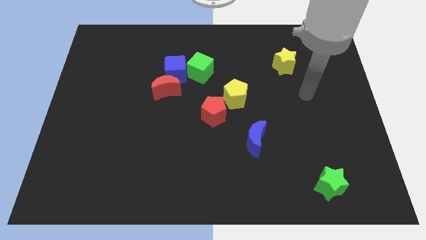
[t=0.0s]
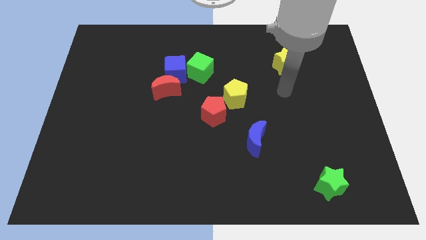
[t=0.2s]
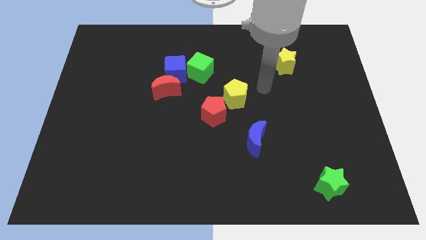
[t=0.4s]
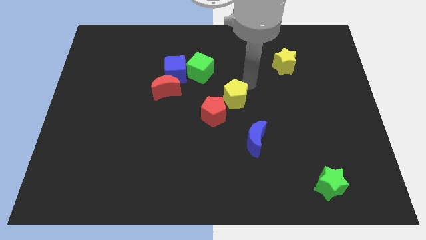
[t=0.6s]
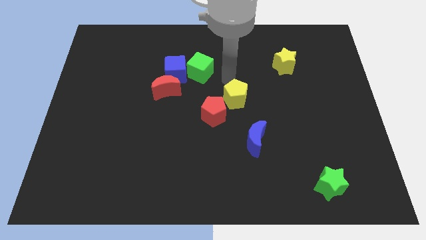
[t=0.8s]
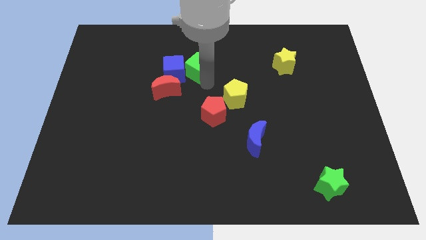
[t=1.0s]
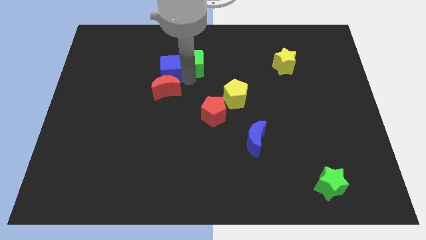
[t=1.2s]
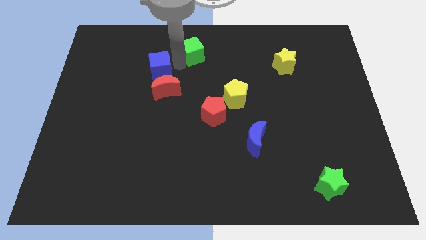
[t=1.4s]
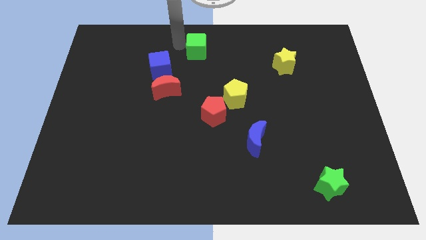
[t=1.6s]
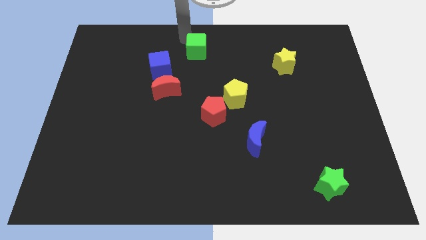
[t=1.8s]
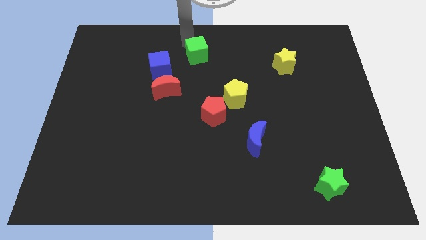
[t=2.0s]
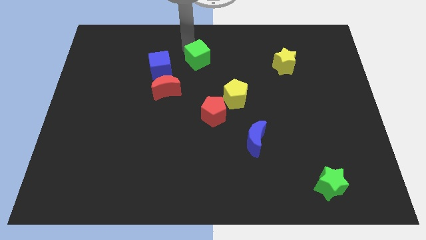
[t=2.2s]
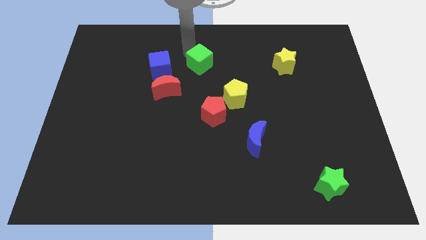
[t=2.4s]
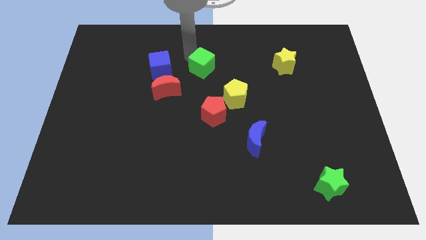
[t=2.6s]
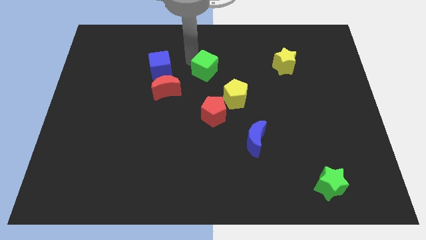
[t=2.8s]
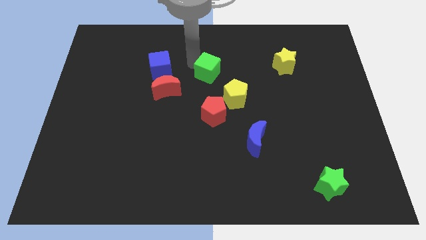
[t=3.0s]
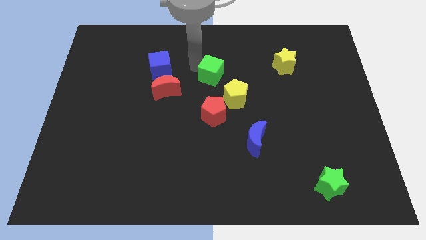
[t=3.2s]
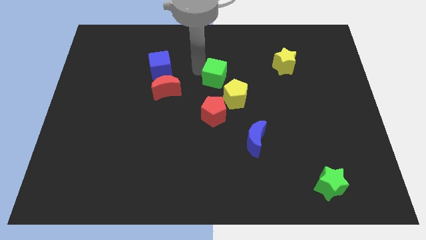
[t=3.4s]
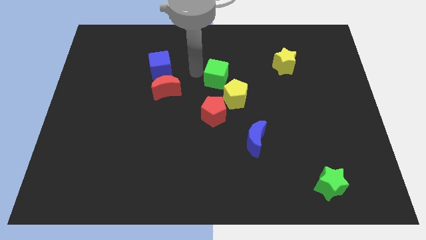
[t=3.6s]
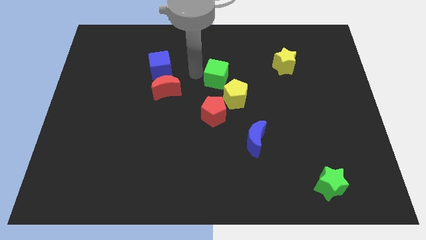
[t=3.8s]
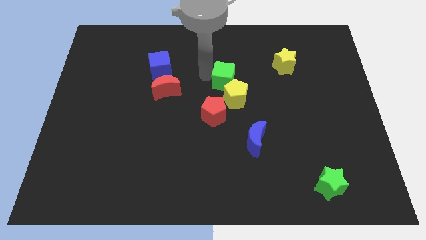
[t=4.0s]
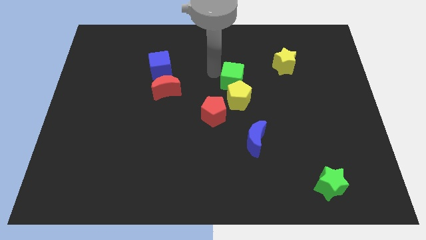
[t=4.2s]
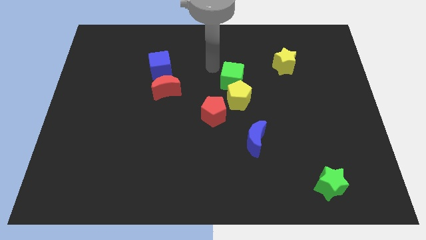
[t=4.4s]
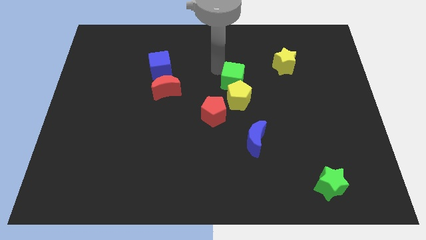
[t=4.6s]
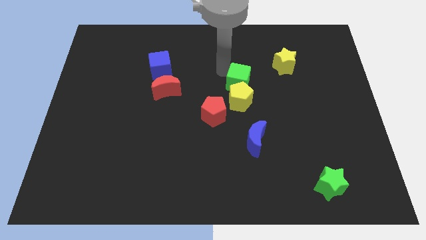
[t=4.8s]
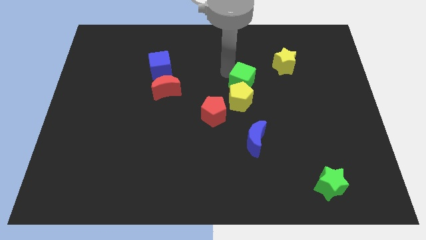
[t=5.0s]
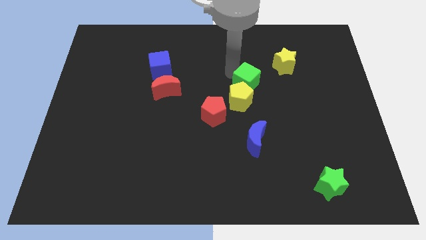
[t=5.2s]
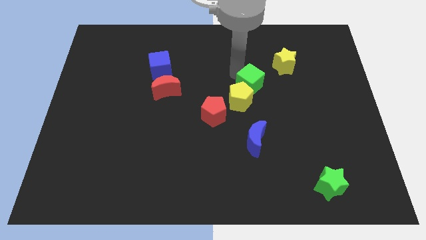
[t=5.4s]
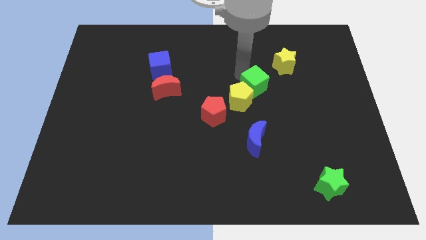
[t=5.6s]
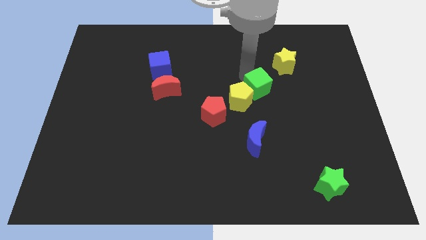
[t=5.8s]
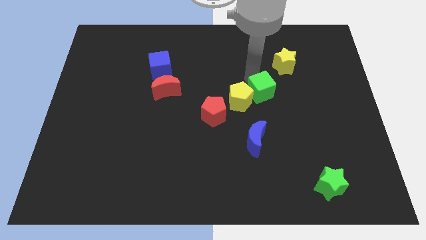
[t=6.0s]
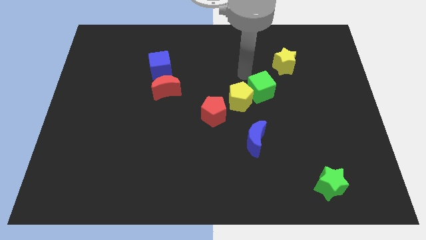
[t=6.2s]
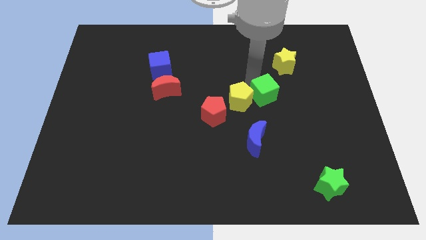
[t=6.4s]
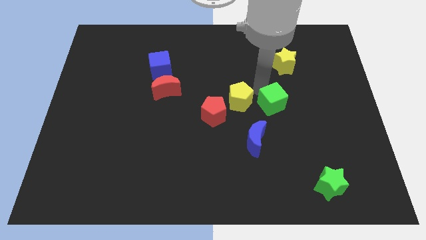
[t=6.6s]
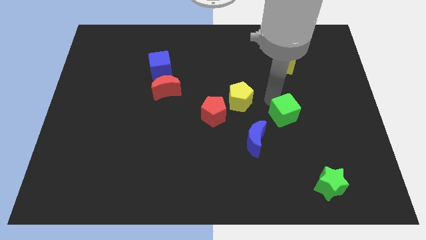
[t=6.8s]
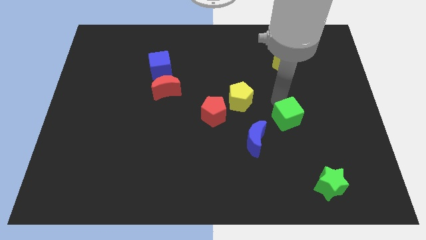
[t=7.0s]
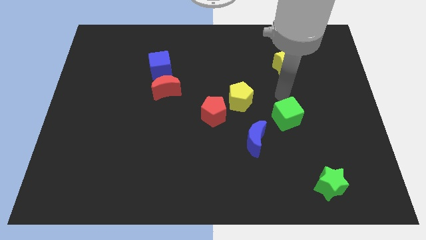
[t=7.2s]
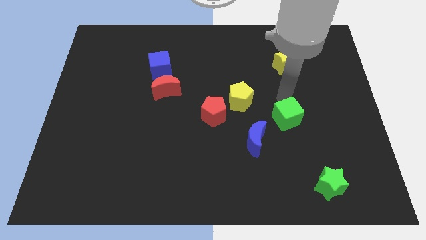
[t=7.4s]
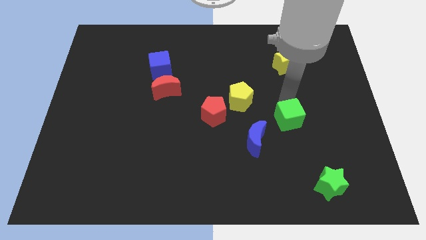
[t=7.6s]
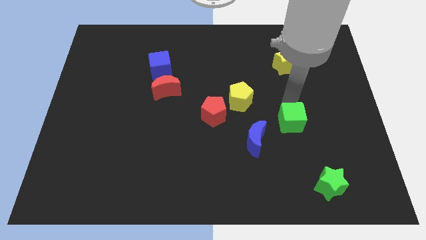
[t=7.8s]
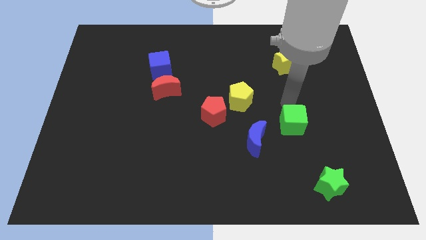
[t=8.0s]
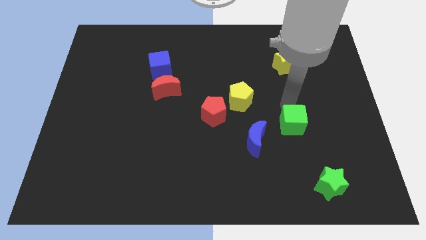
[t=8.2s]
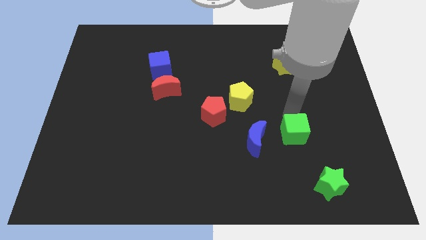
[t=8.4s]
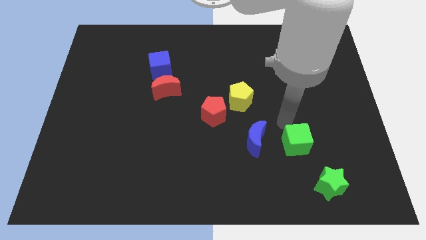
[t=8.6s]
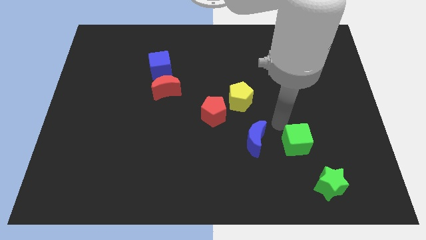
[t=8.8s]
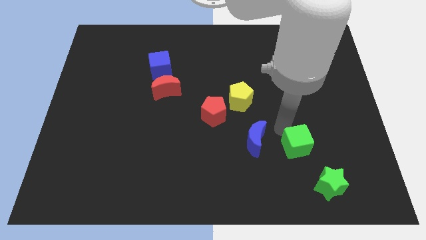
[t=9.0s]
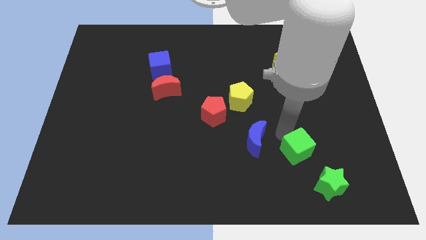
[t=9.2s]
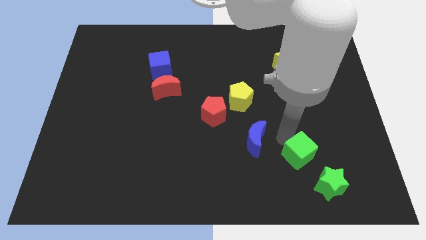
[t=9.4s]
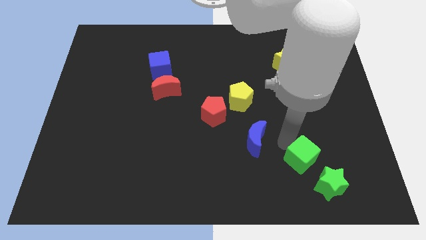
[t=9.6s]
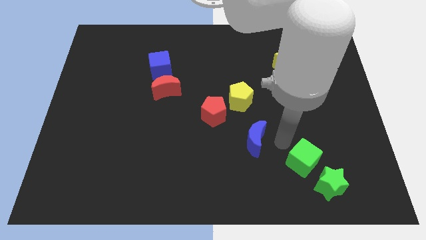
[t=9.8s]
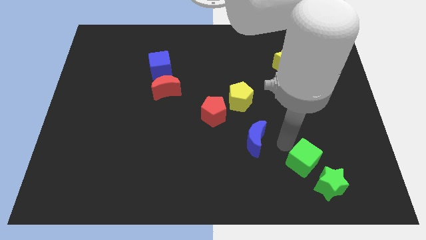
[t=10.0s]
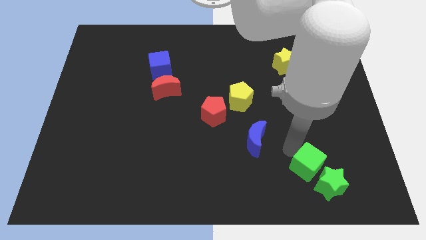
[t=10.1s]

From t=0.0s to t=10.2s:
put the green cube towards the green star

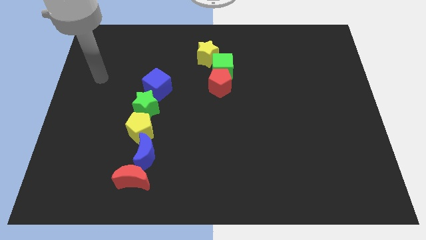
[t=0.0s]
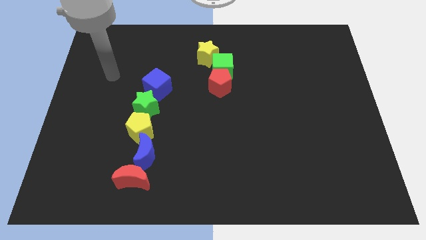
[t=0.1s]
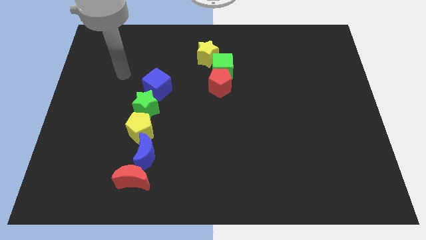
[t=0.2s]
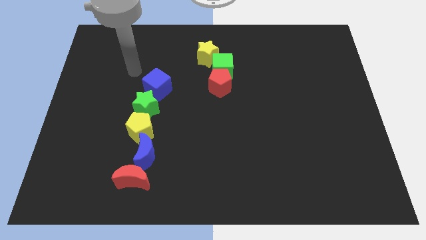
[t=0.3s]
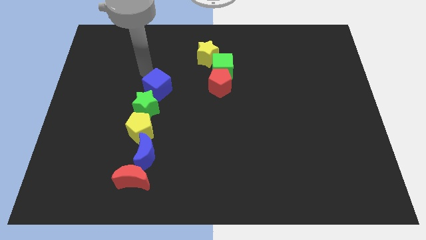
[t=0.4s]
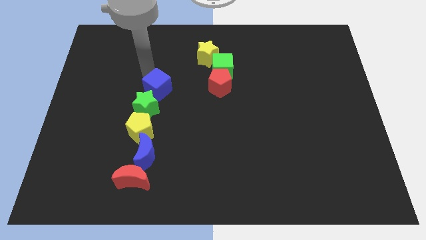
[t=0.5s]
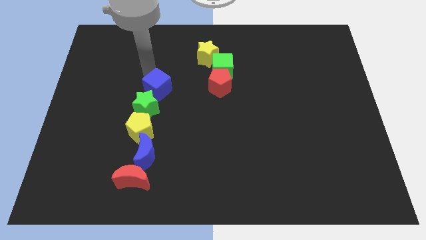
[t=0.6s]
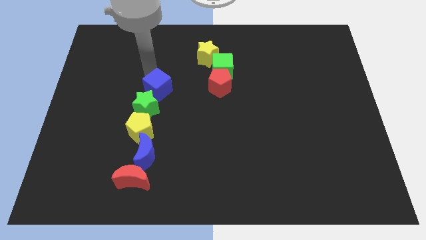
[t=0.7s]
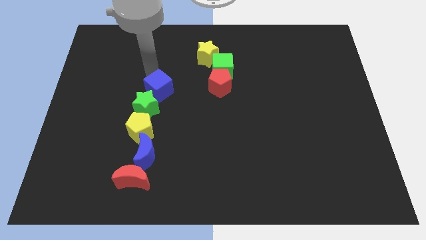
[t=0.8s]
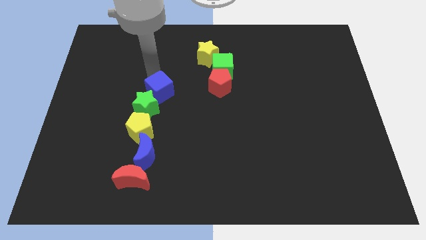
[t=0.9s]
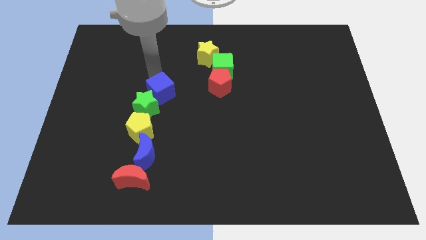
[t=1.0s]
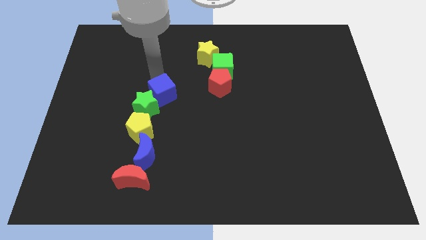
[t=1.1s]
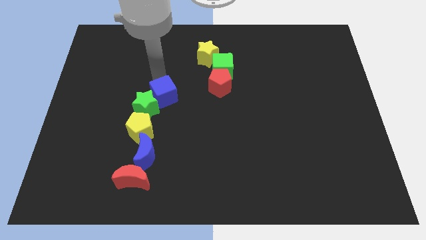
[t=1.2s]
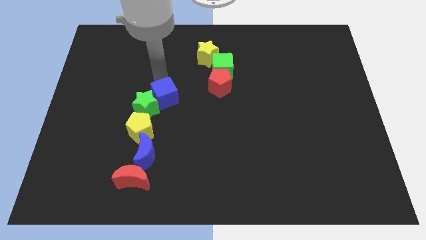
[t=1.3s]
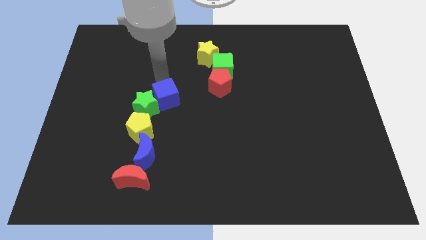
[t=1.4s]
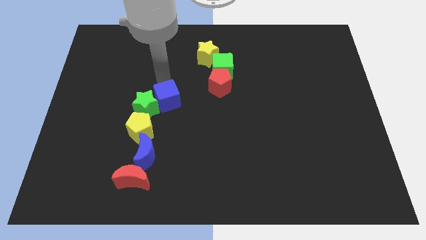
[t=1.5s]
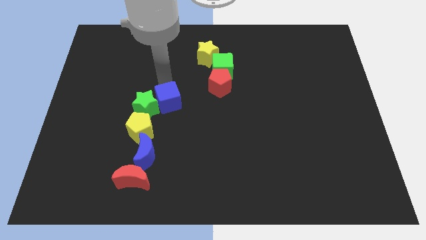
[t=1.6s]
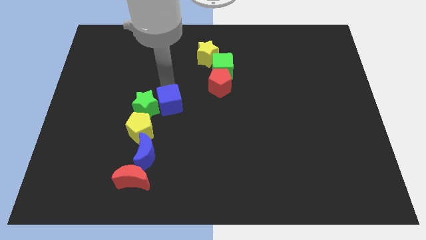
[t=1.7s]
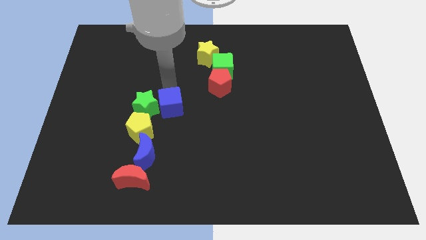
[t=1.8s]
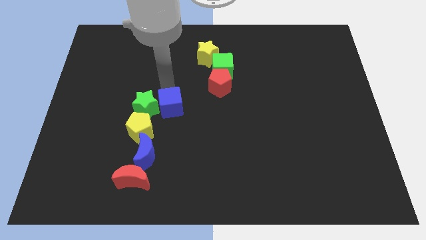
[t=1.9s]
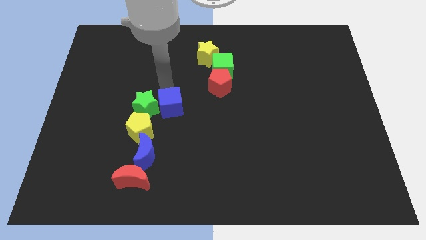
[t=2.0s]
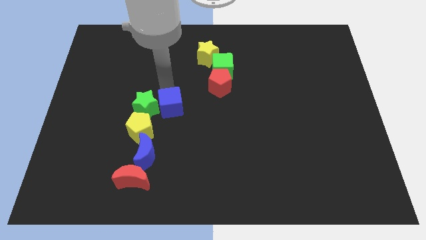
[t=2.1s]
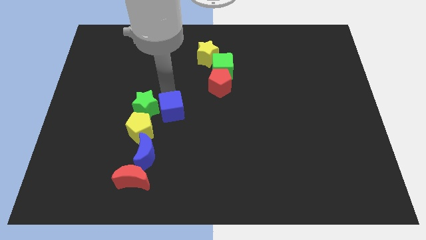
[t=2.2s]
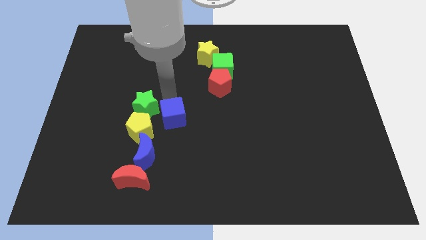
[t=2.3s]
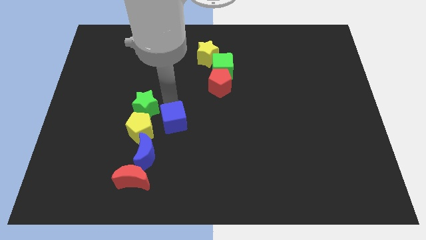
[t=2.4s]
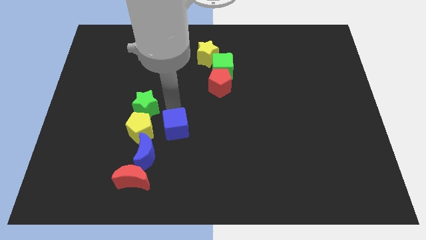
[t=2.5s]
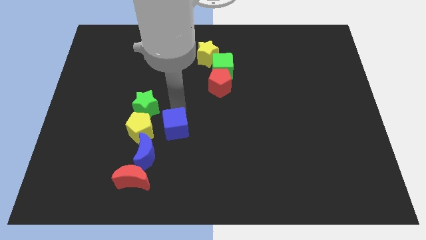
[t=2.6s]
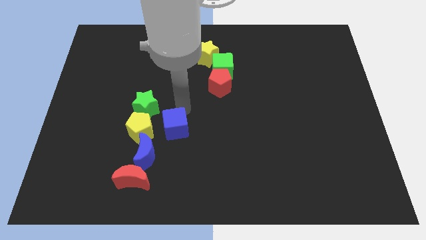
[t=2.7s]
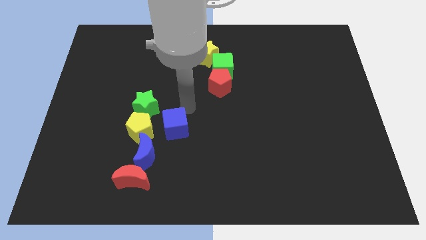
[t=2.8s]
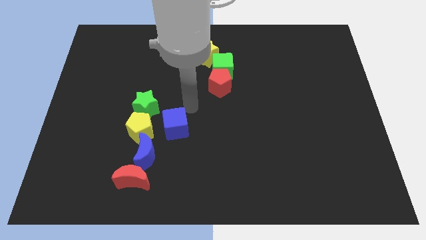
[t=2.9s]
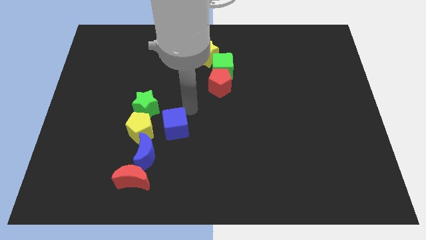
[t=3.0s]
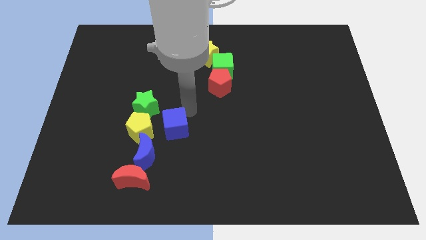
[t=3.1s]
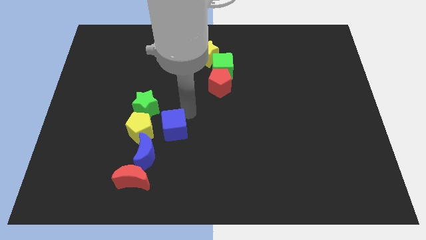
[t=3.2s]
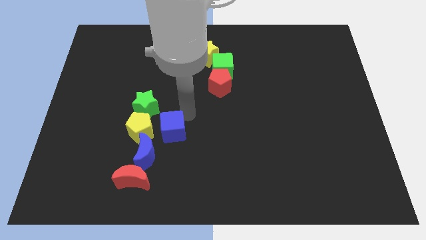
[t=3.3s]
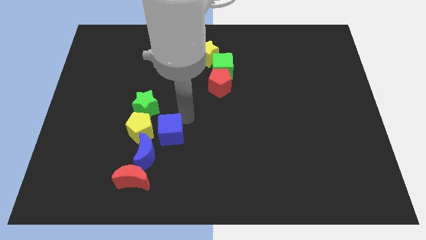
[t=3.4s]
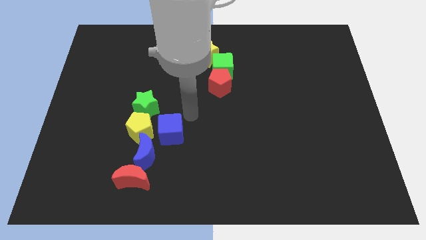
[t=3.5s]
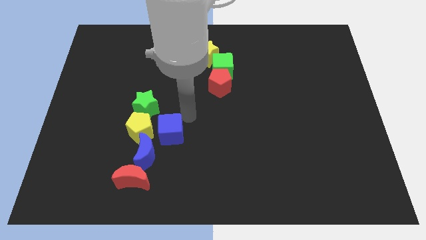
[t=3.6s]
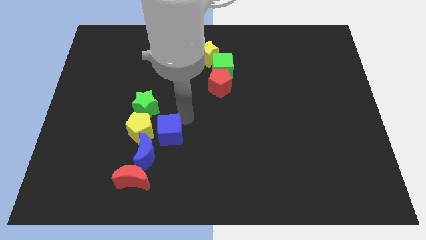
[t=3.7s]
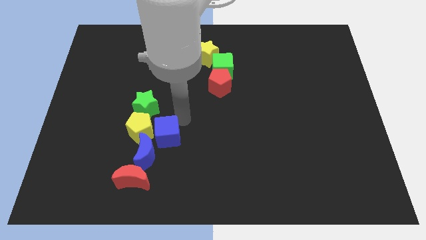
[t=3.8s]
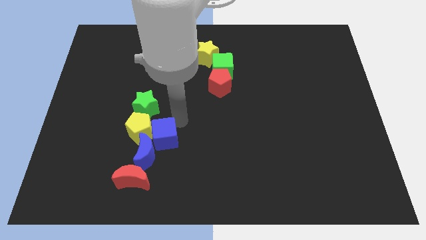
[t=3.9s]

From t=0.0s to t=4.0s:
push the blue cube towards the blue moon
